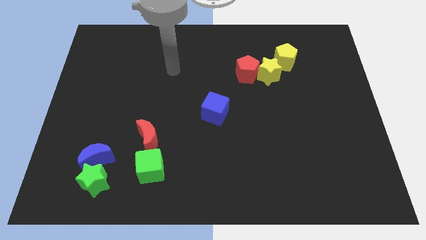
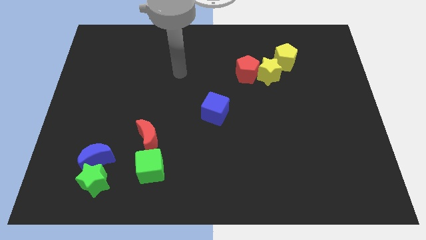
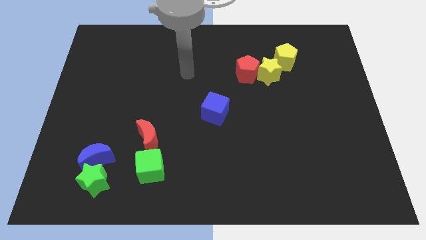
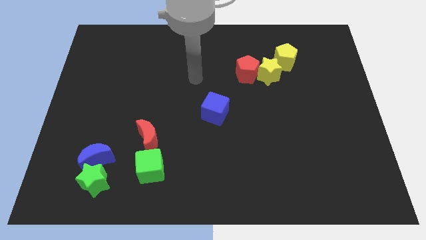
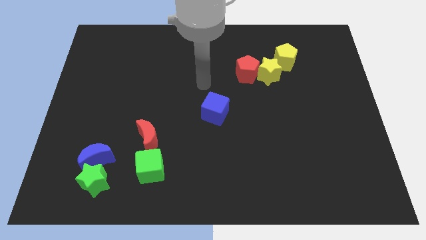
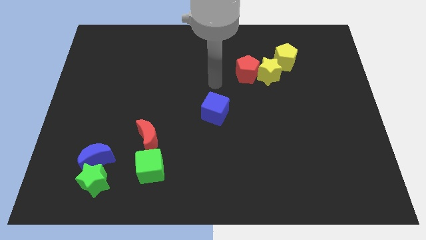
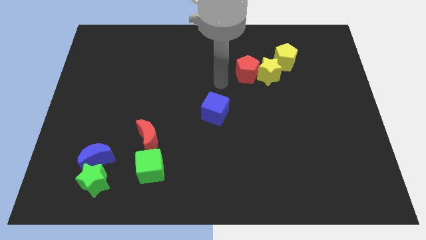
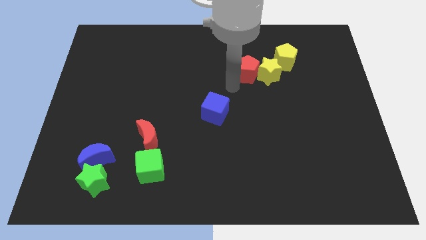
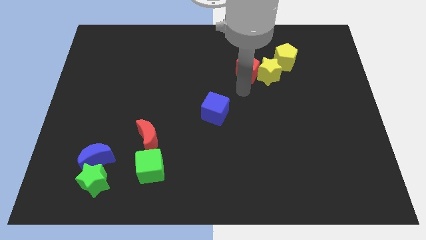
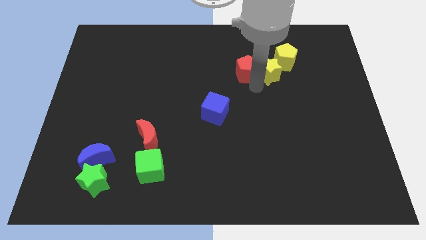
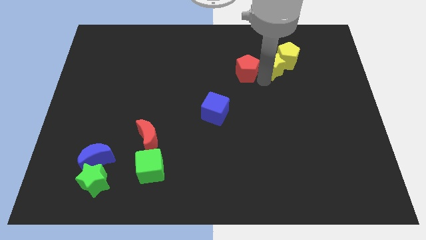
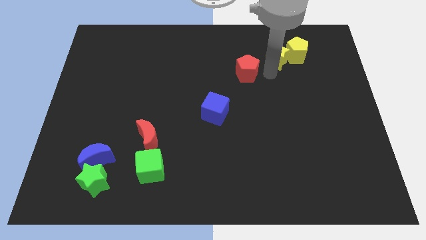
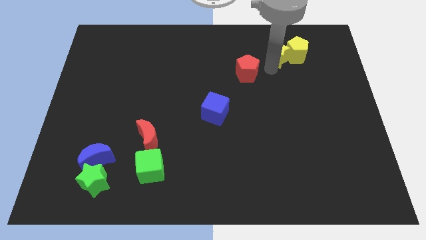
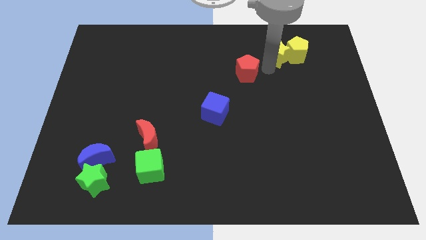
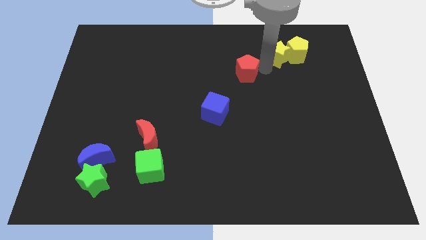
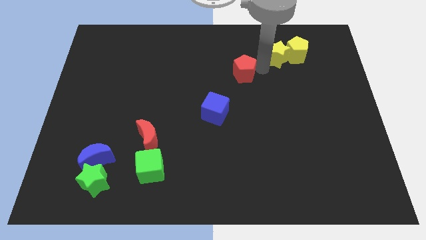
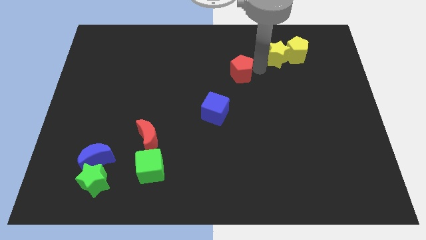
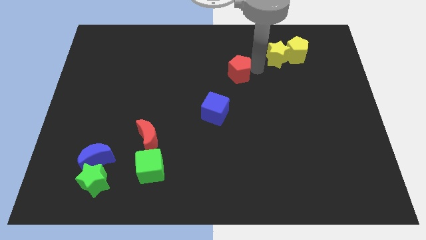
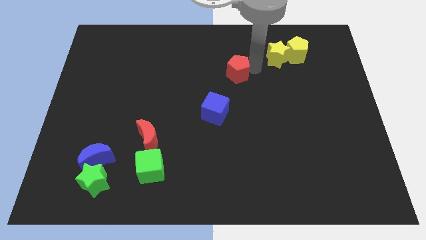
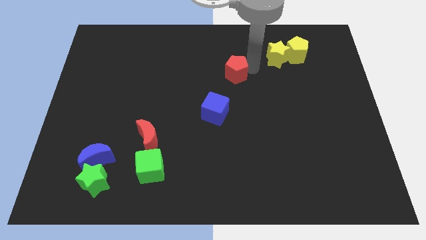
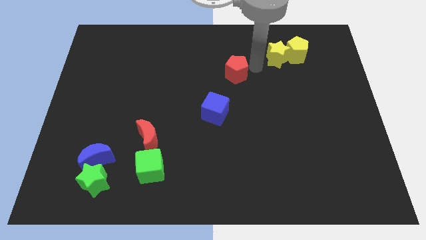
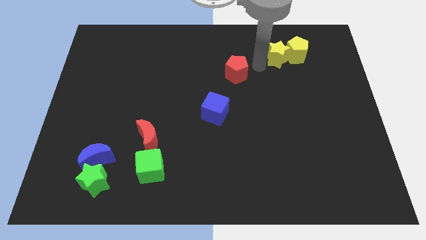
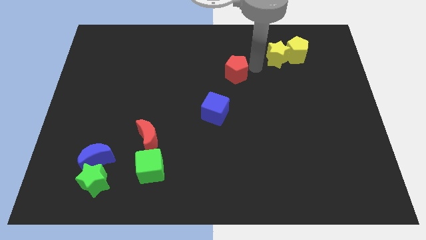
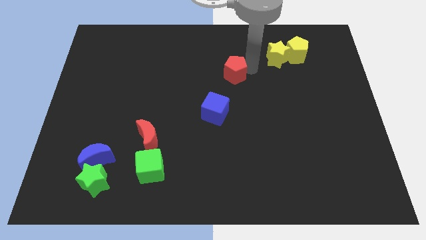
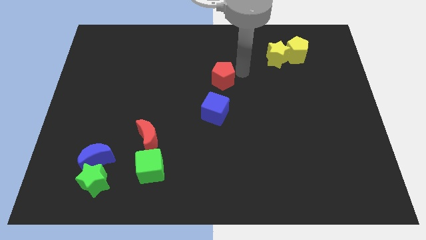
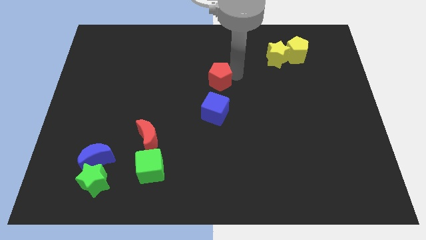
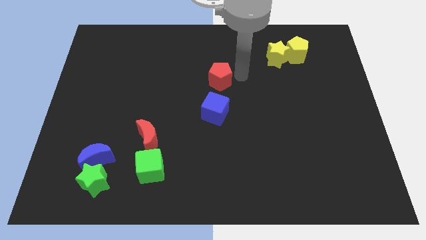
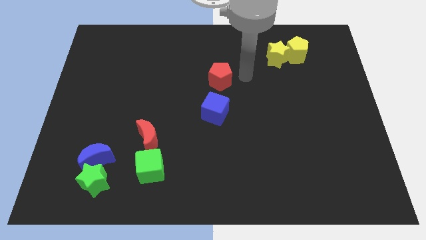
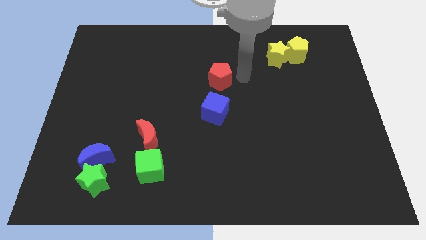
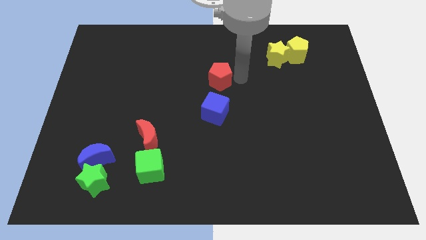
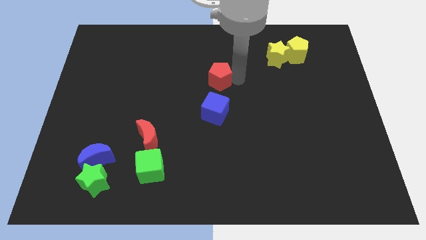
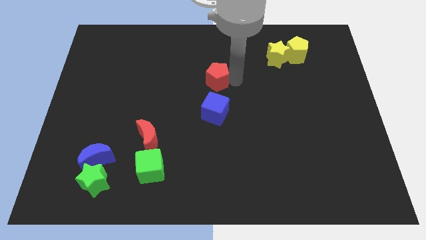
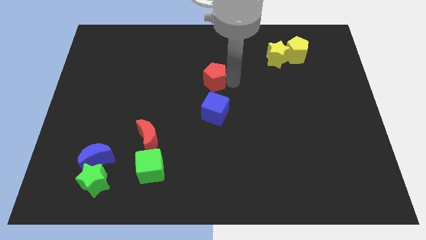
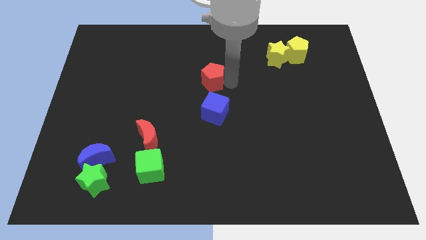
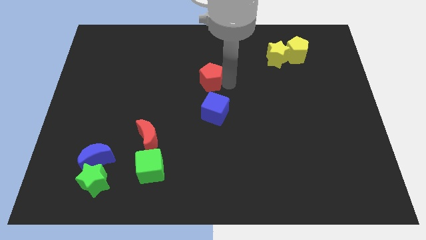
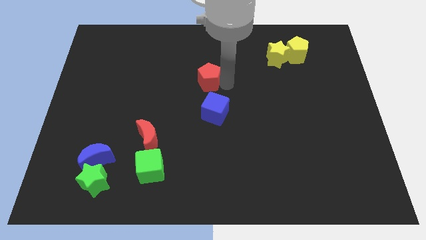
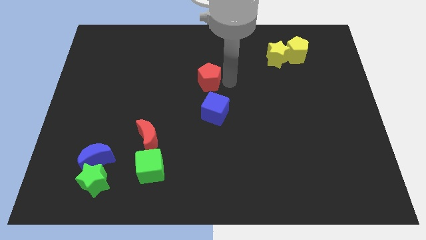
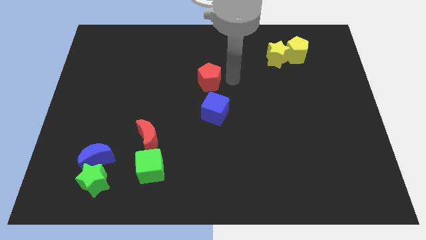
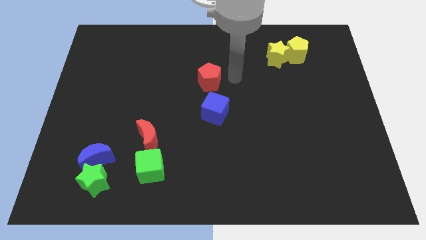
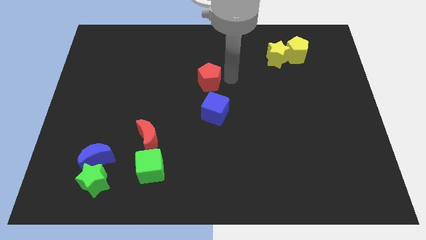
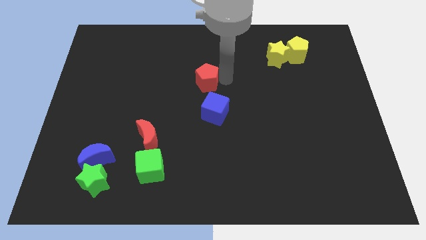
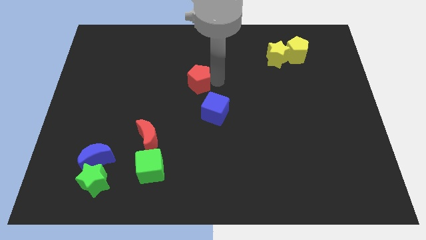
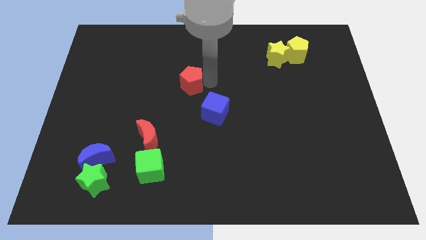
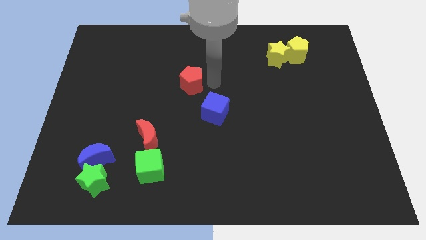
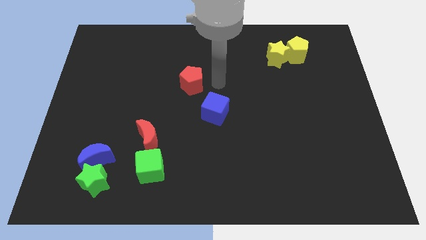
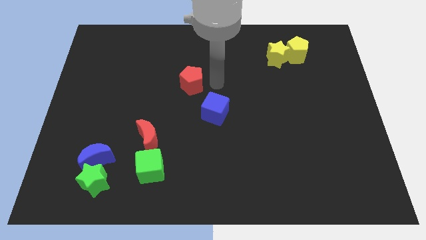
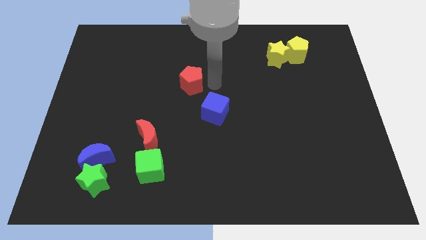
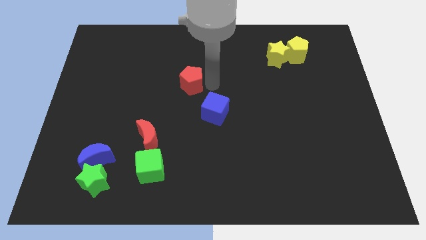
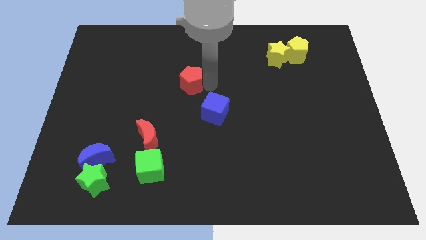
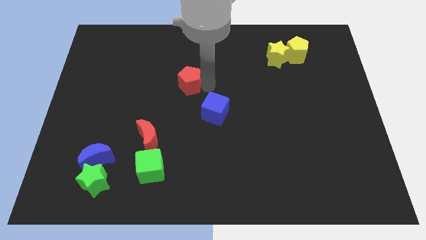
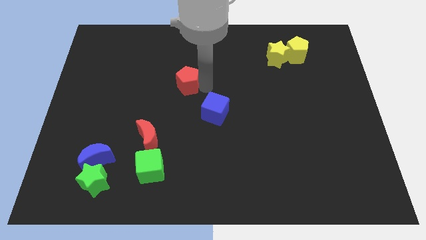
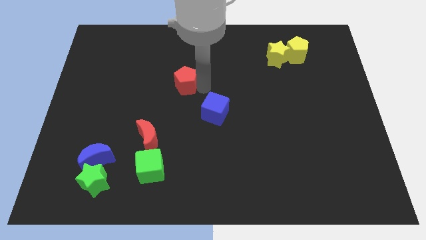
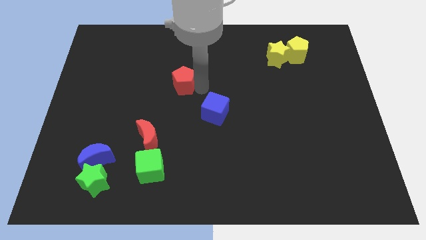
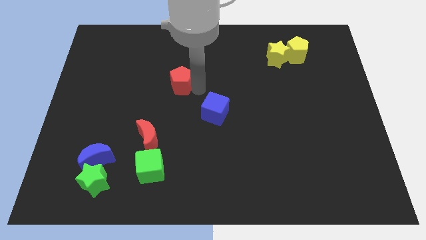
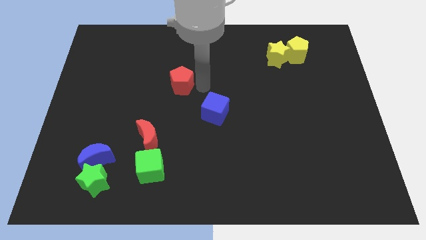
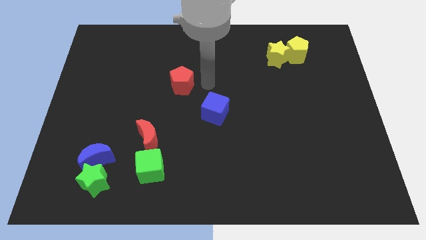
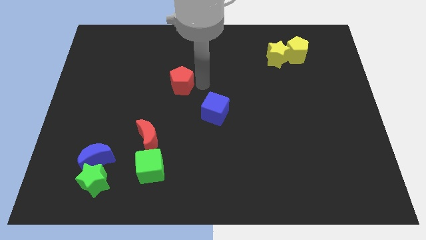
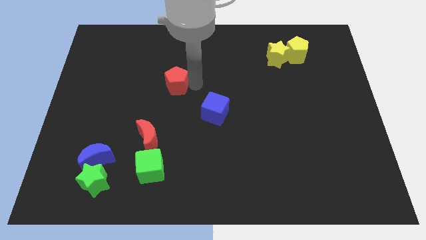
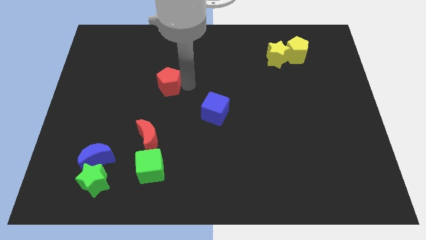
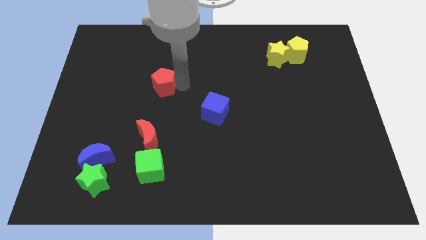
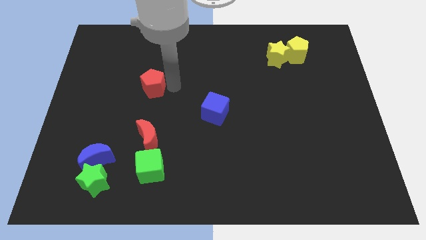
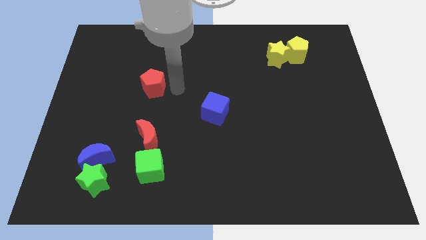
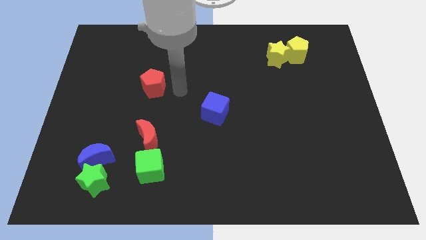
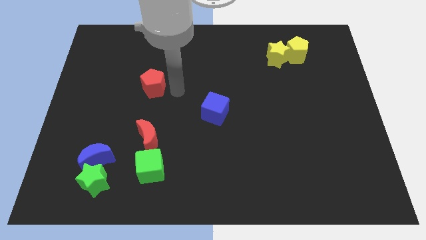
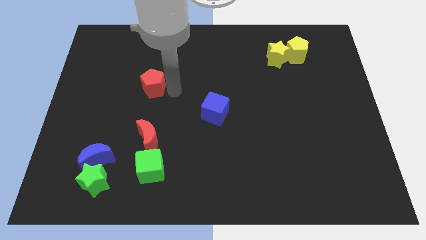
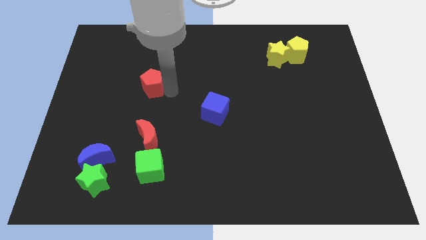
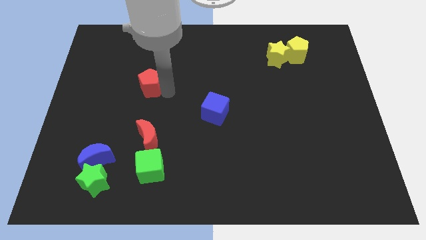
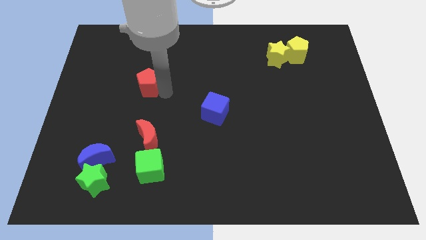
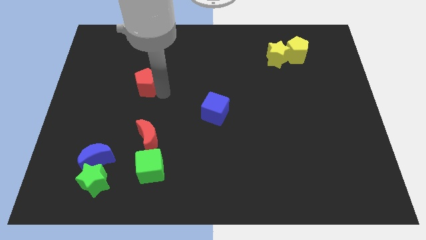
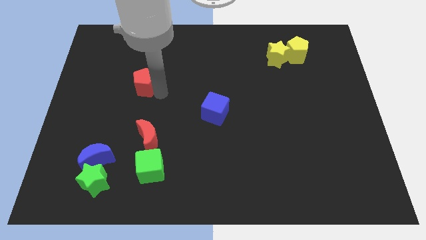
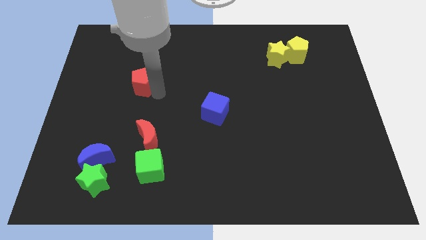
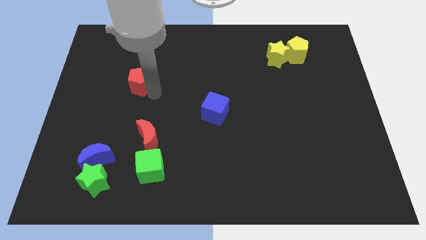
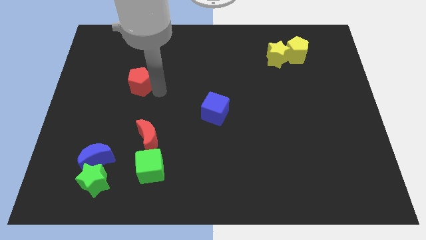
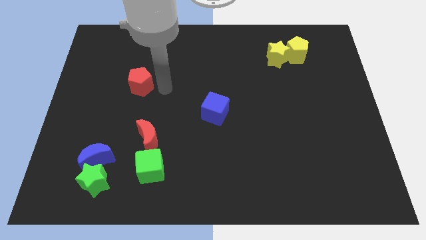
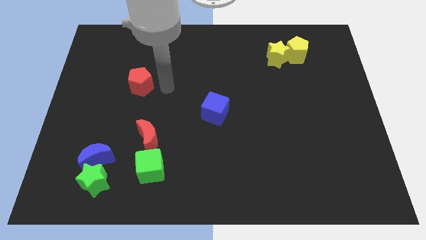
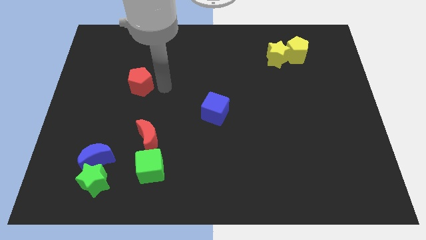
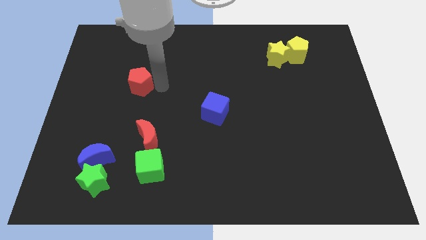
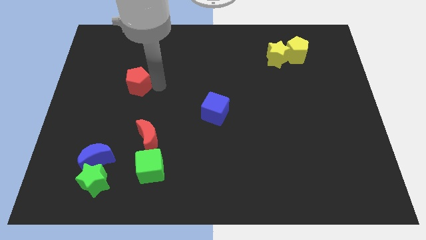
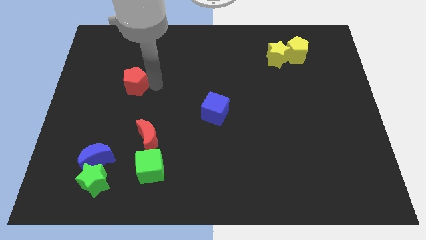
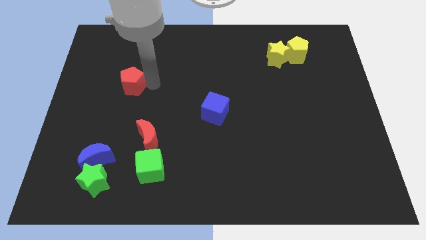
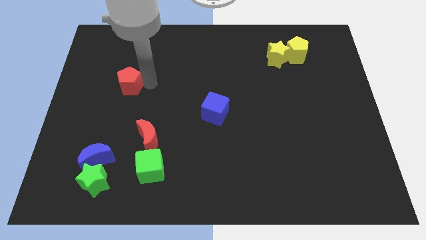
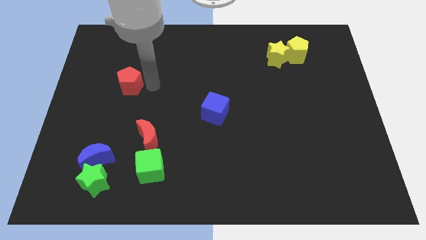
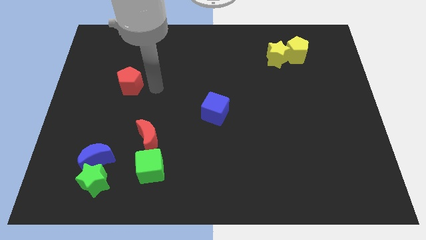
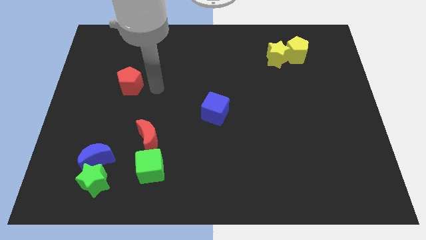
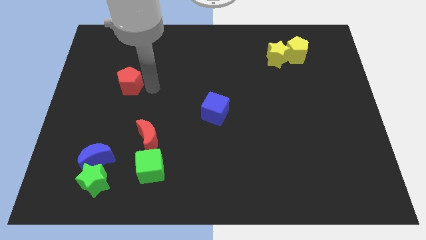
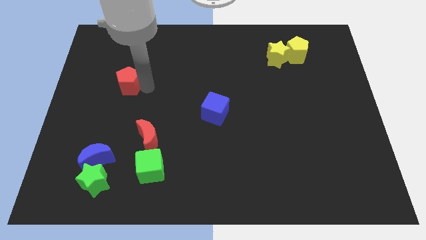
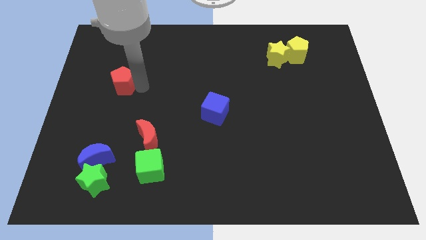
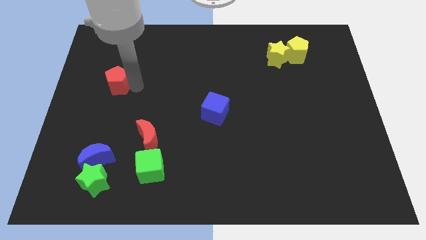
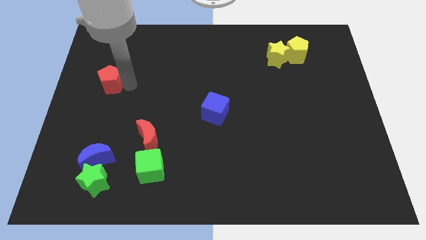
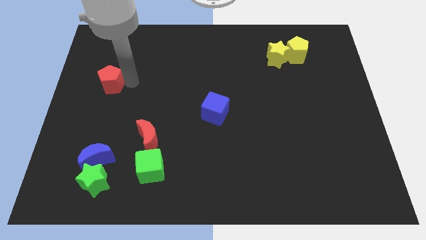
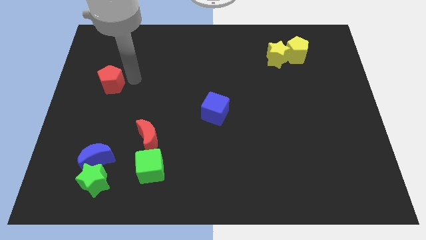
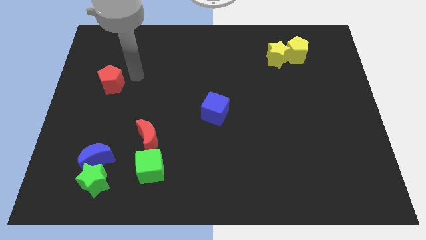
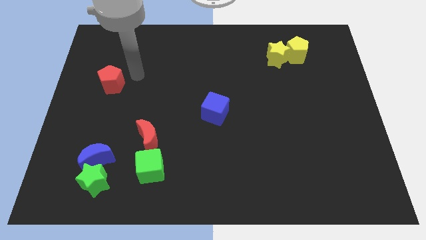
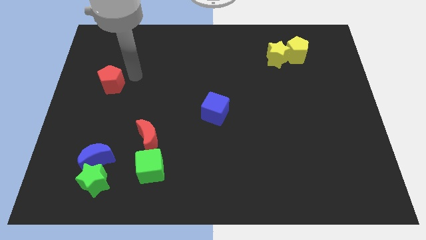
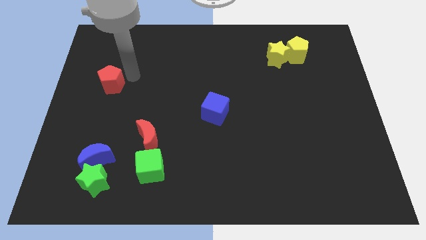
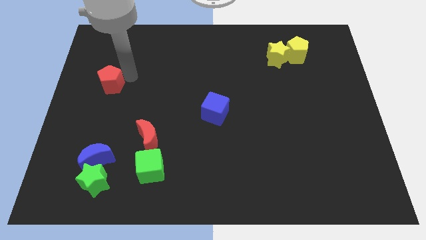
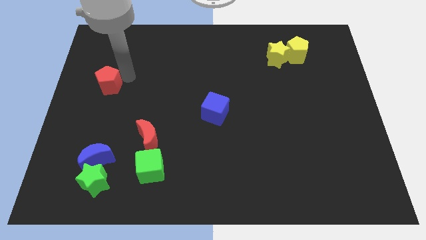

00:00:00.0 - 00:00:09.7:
slide the red pentagon to the left side
